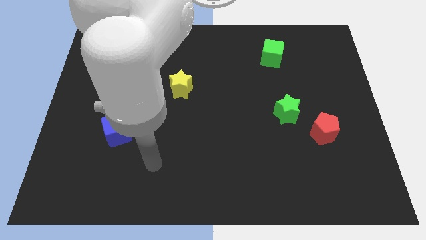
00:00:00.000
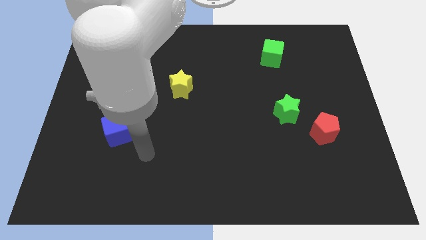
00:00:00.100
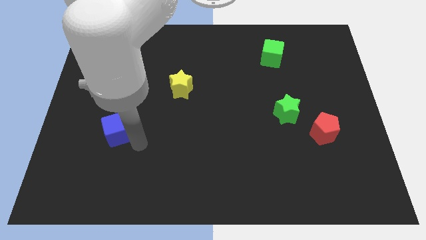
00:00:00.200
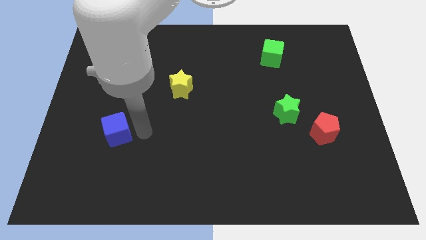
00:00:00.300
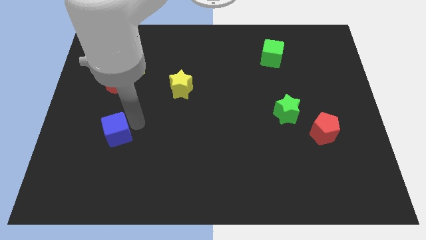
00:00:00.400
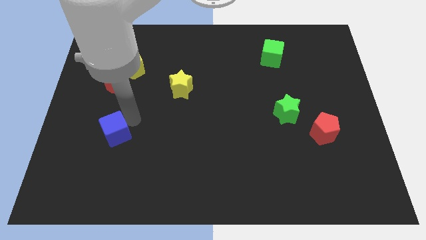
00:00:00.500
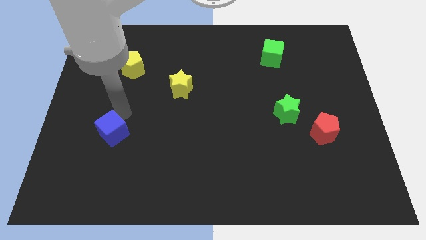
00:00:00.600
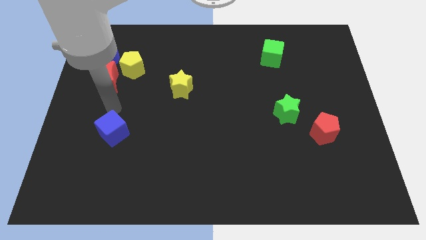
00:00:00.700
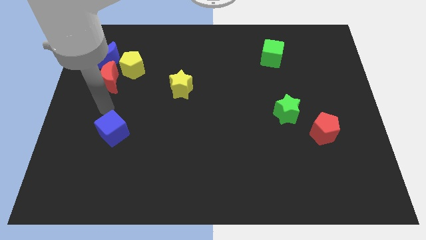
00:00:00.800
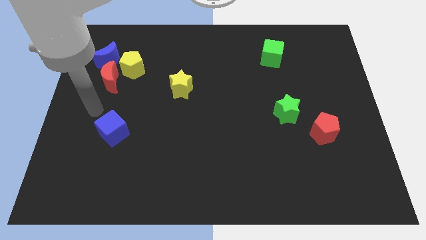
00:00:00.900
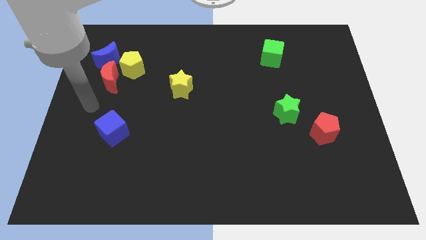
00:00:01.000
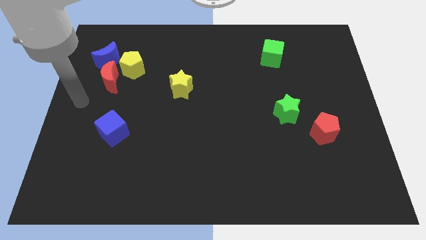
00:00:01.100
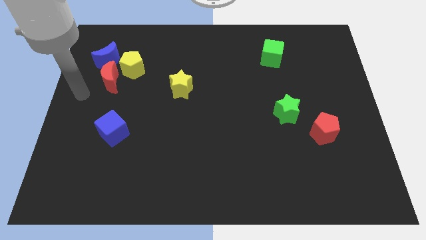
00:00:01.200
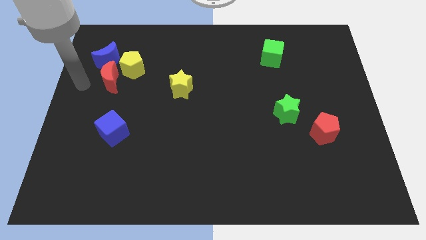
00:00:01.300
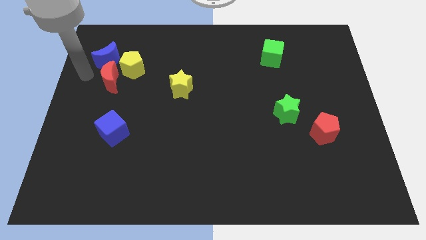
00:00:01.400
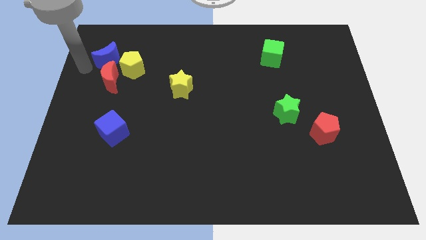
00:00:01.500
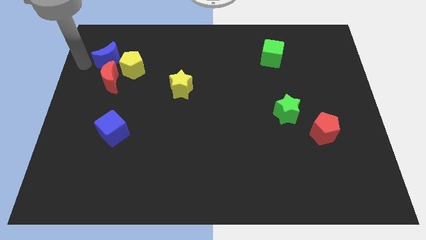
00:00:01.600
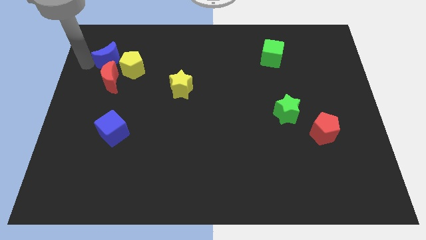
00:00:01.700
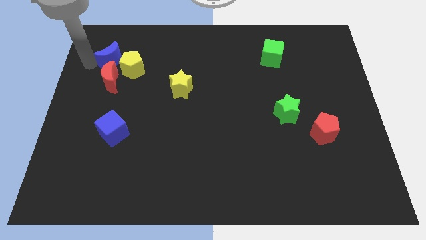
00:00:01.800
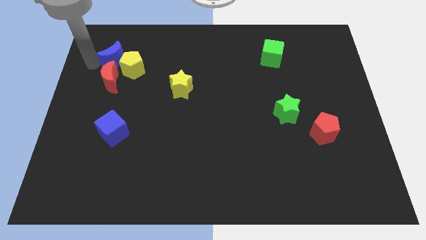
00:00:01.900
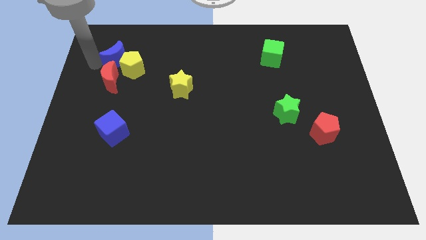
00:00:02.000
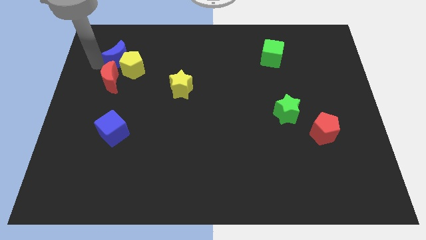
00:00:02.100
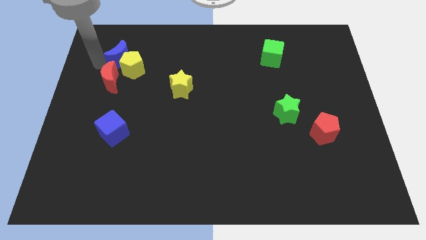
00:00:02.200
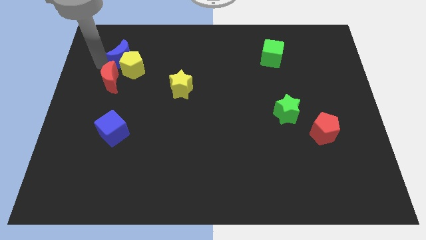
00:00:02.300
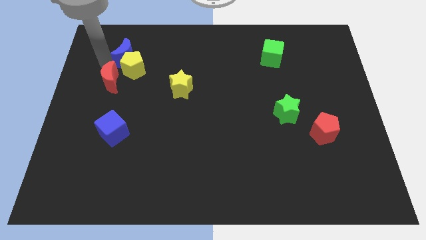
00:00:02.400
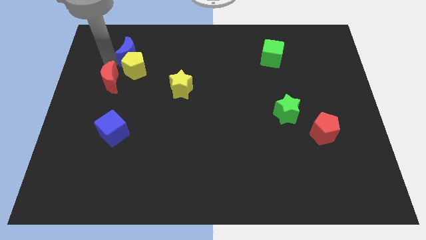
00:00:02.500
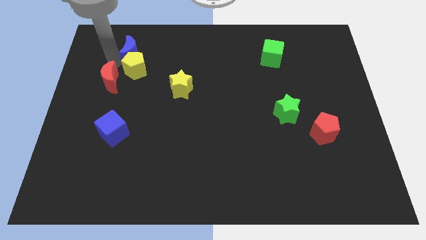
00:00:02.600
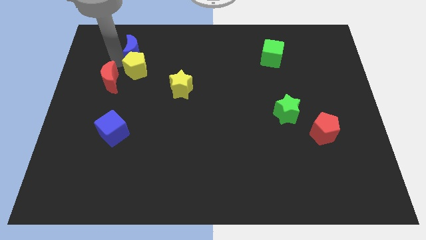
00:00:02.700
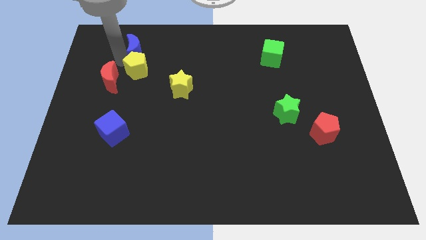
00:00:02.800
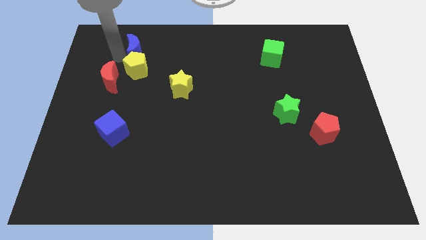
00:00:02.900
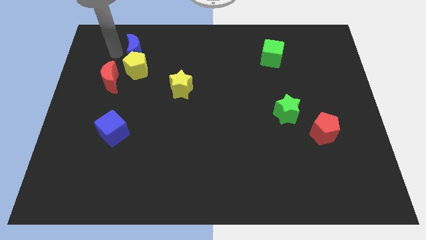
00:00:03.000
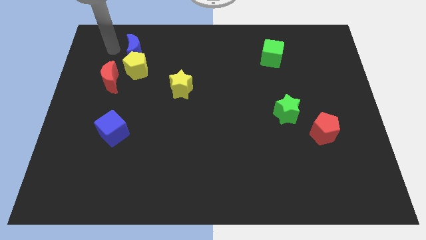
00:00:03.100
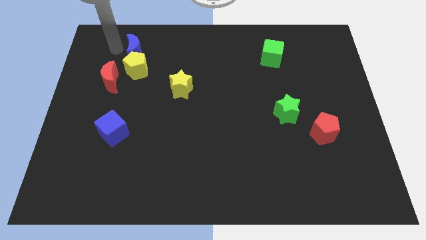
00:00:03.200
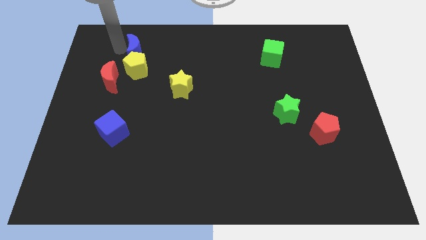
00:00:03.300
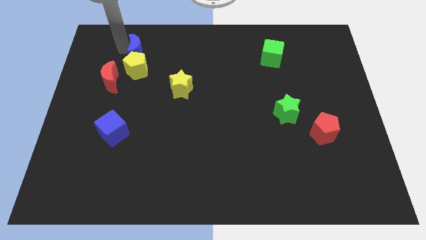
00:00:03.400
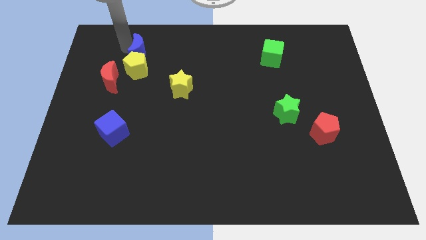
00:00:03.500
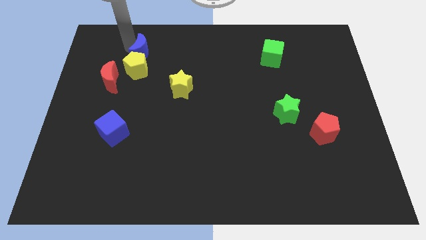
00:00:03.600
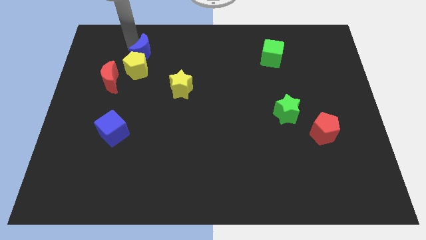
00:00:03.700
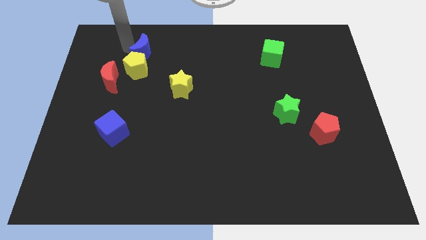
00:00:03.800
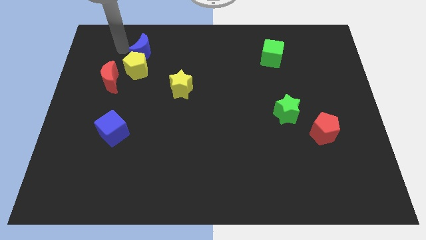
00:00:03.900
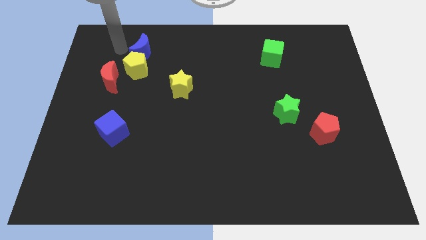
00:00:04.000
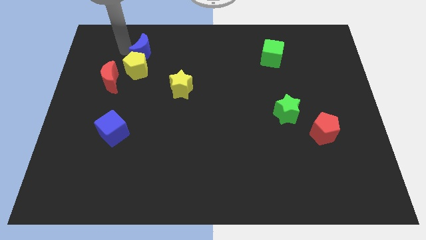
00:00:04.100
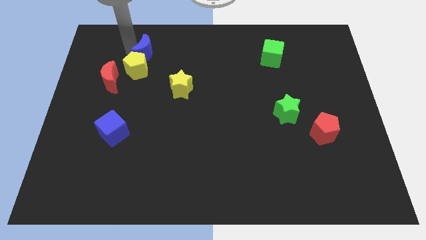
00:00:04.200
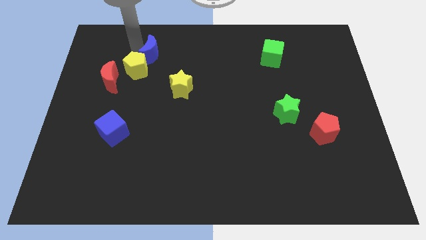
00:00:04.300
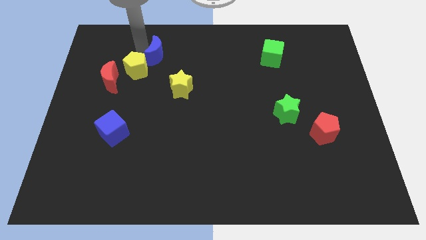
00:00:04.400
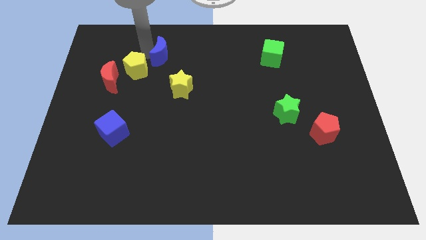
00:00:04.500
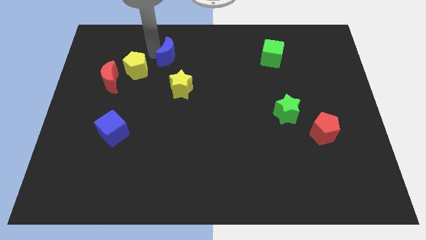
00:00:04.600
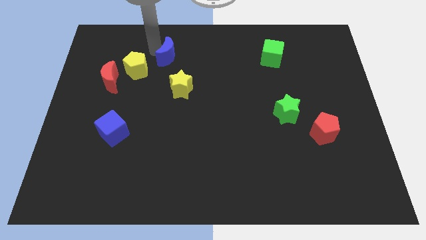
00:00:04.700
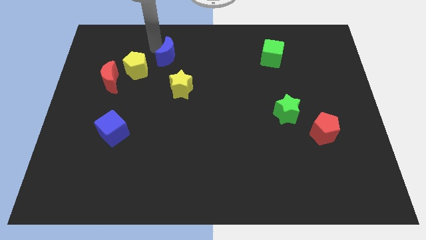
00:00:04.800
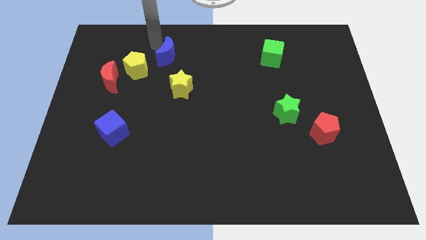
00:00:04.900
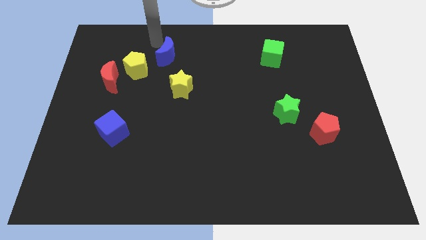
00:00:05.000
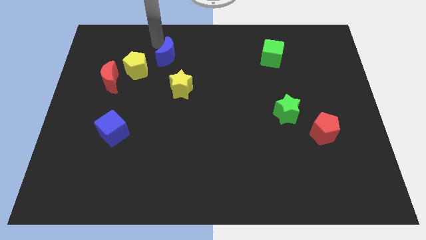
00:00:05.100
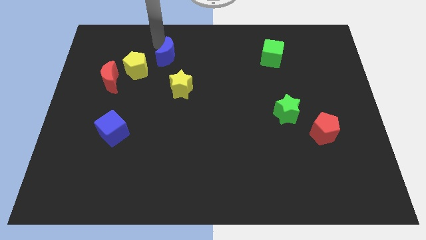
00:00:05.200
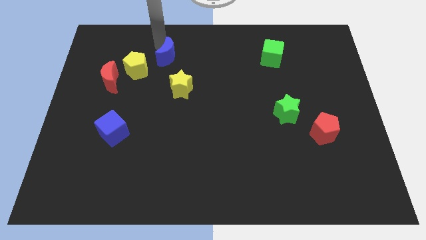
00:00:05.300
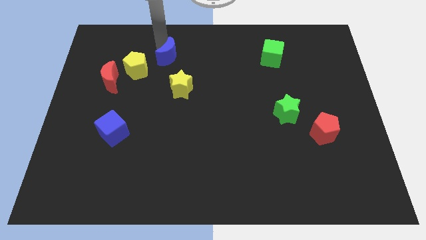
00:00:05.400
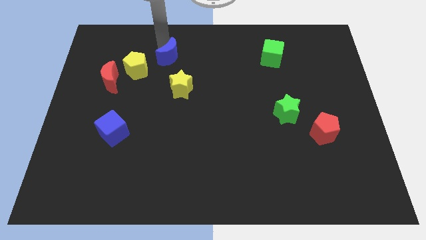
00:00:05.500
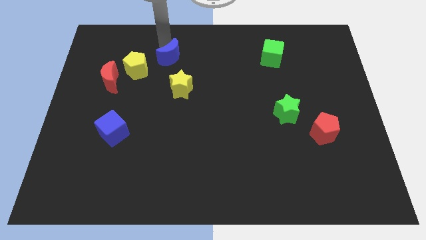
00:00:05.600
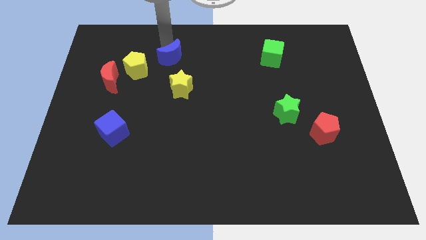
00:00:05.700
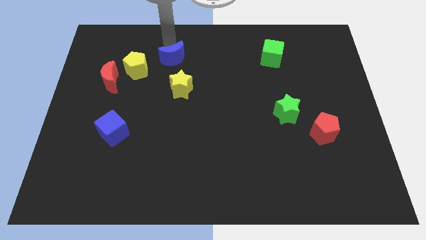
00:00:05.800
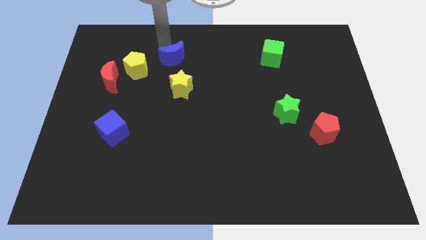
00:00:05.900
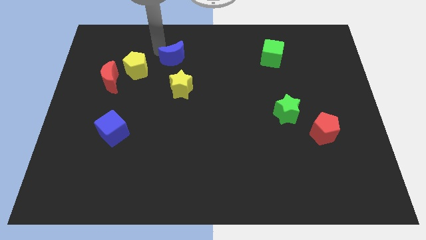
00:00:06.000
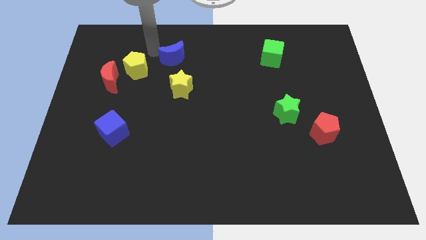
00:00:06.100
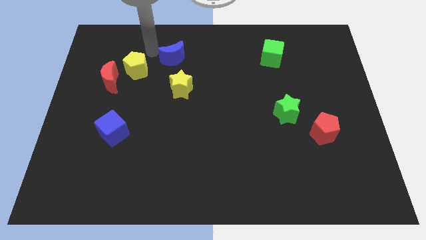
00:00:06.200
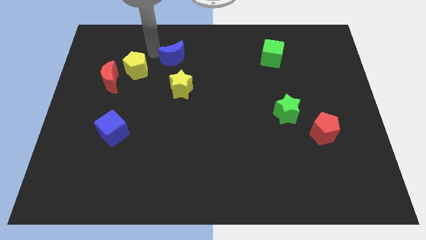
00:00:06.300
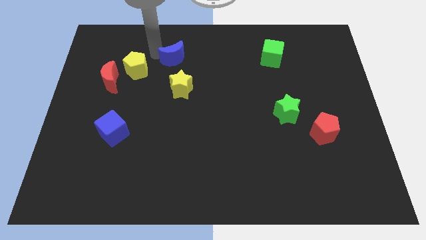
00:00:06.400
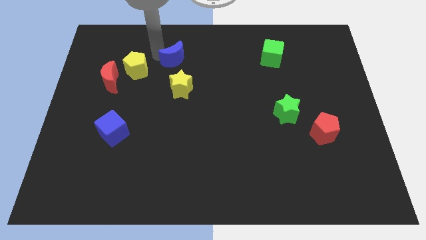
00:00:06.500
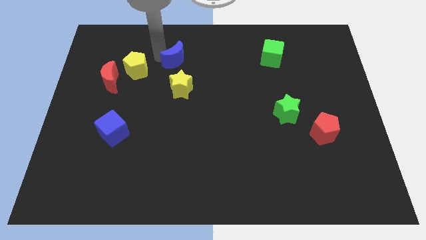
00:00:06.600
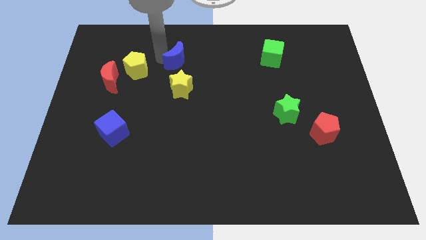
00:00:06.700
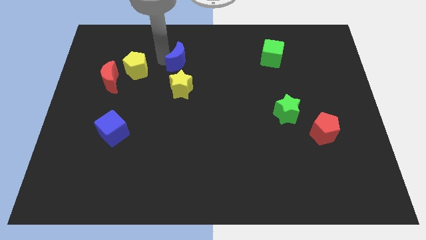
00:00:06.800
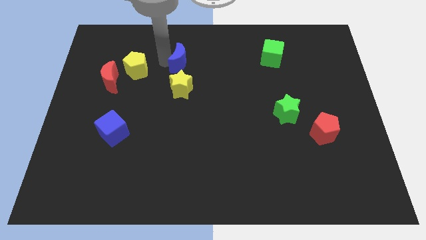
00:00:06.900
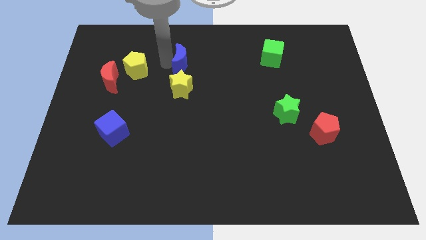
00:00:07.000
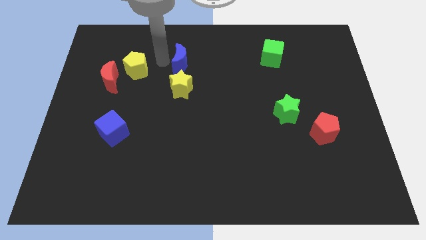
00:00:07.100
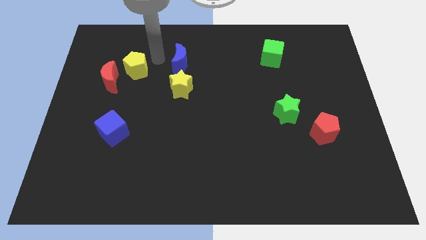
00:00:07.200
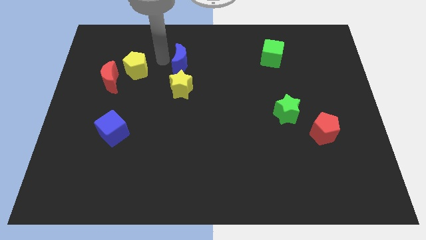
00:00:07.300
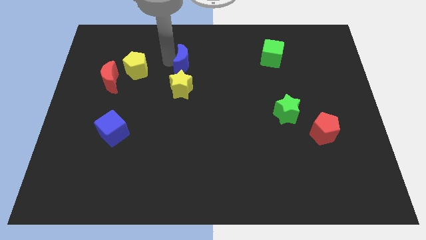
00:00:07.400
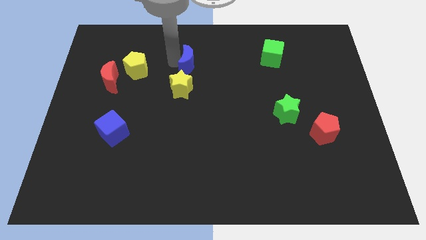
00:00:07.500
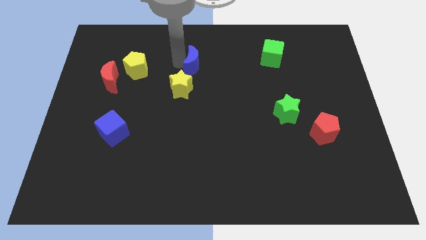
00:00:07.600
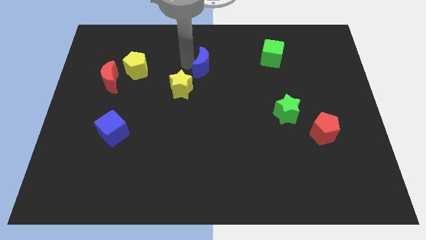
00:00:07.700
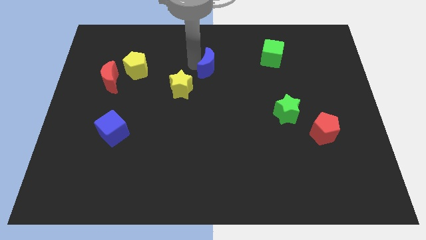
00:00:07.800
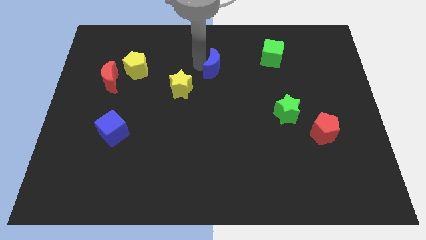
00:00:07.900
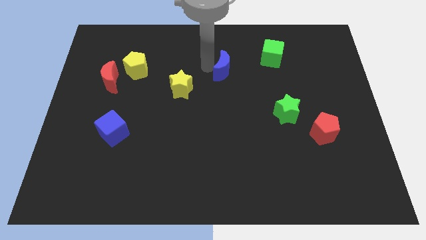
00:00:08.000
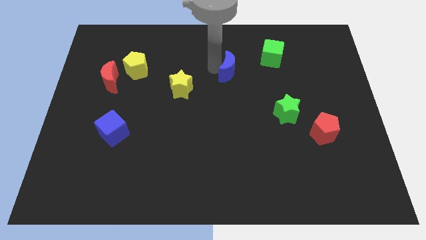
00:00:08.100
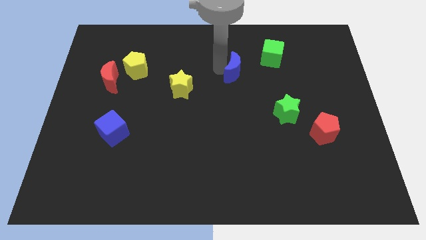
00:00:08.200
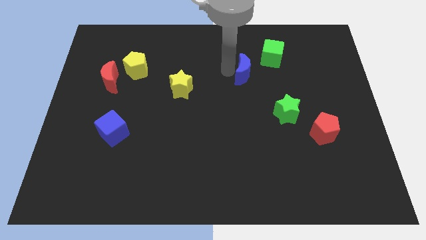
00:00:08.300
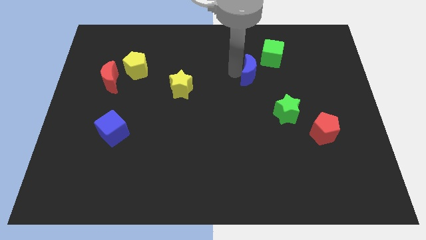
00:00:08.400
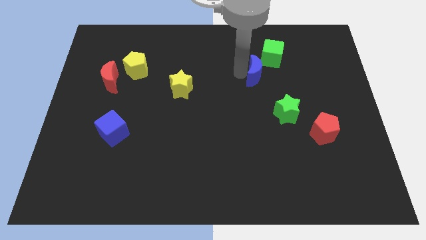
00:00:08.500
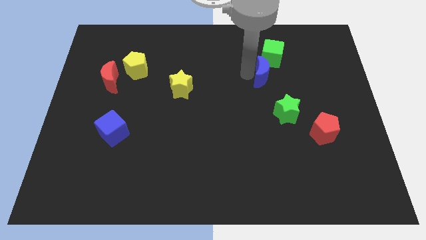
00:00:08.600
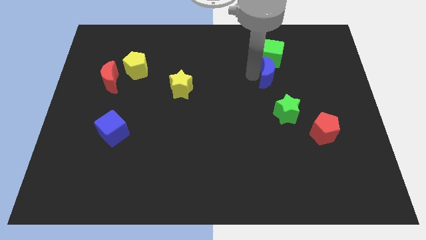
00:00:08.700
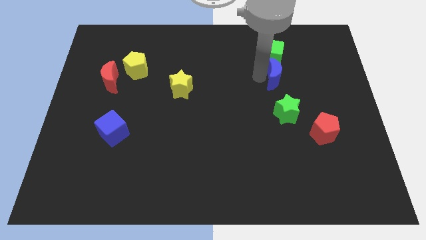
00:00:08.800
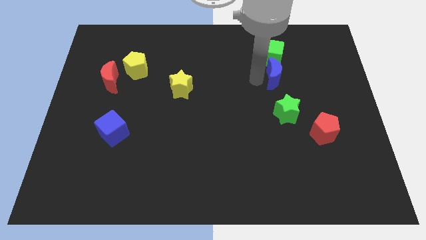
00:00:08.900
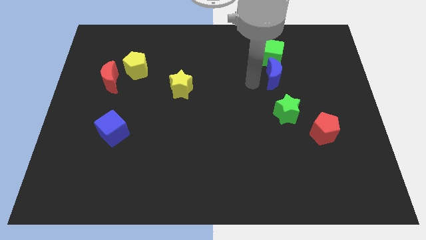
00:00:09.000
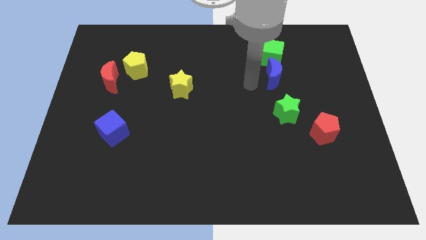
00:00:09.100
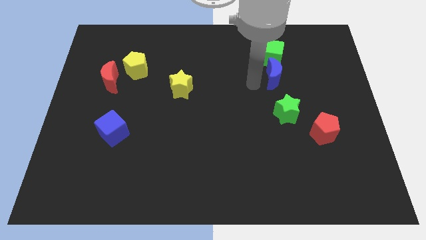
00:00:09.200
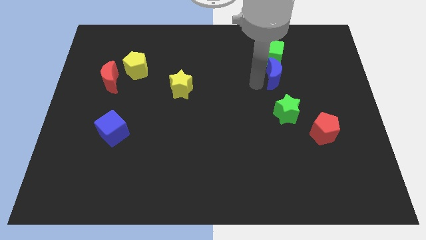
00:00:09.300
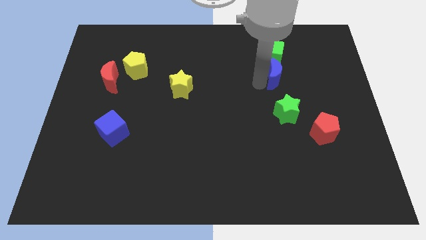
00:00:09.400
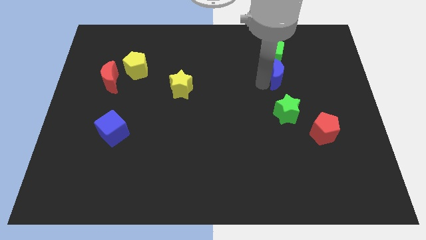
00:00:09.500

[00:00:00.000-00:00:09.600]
push the blue moon to the bottom right of the green cube
